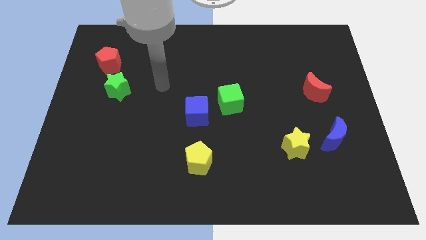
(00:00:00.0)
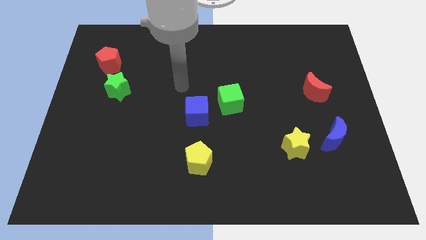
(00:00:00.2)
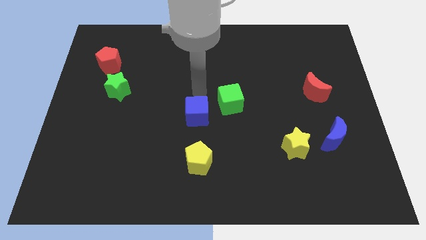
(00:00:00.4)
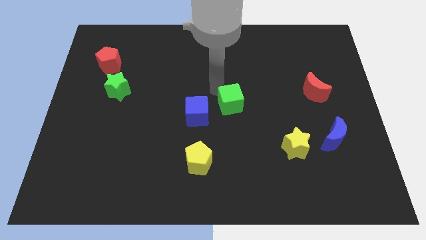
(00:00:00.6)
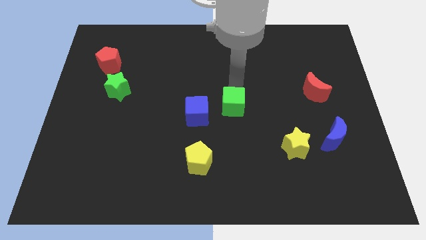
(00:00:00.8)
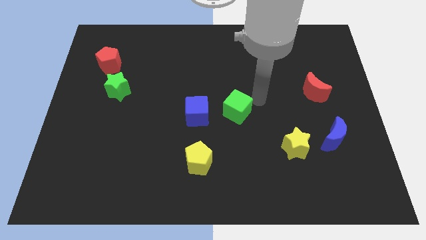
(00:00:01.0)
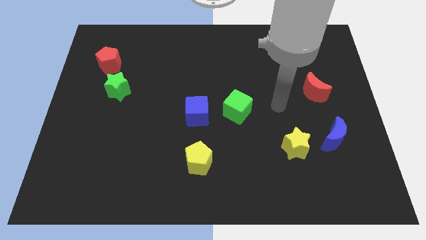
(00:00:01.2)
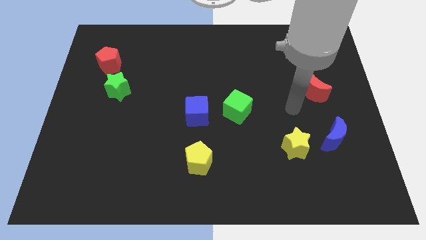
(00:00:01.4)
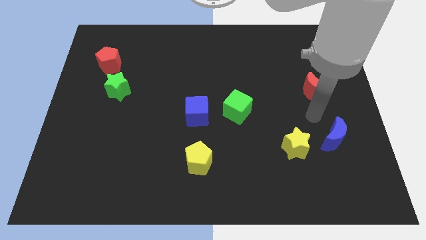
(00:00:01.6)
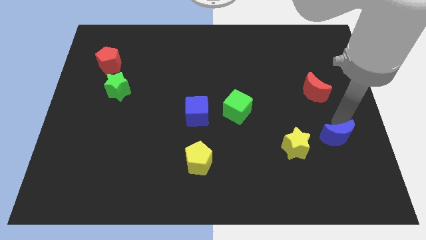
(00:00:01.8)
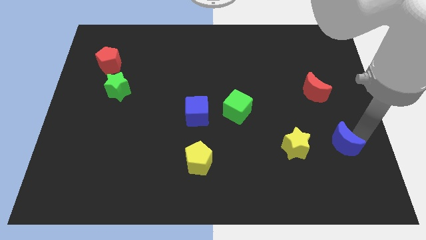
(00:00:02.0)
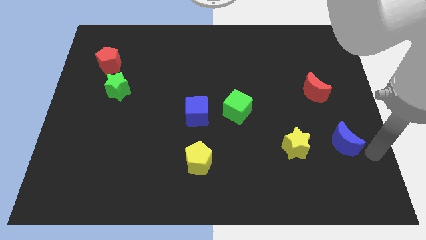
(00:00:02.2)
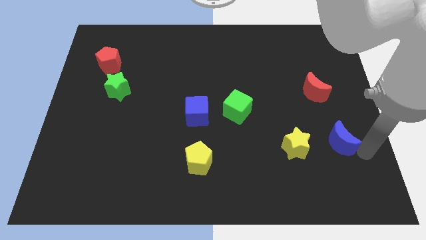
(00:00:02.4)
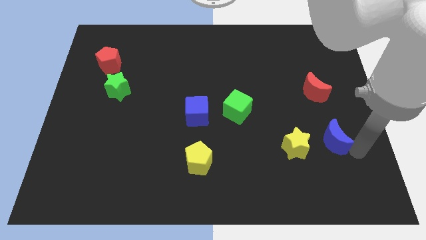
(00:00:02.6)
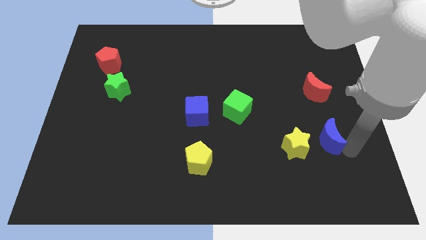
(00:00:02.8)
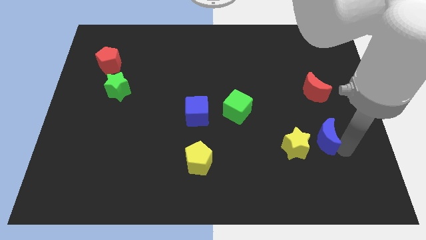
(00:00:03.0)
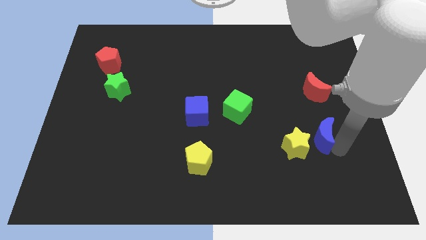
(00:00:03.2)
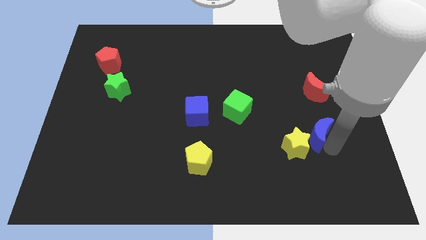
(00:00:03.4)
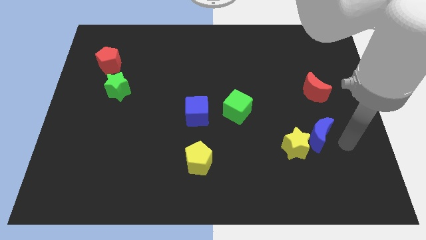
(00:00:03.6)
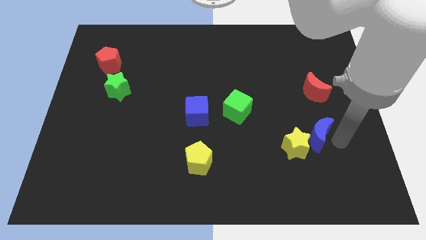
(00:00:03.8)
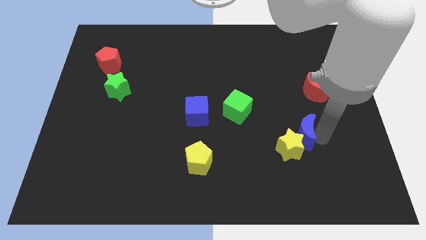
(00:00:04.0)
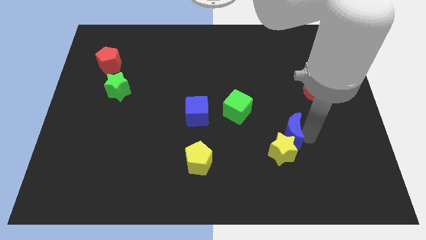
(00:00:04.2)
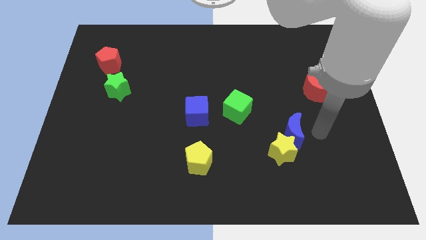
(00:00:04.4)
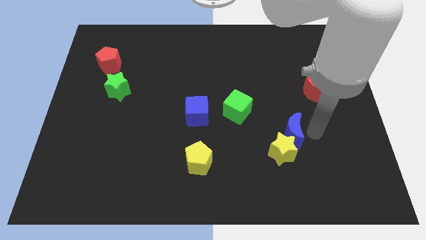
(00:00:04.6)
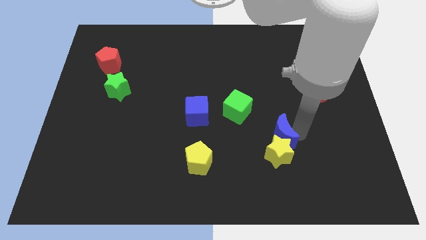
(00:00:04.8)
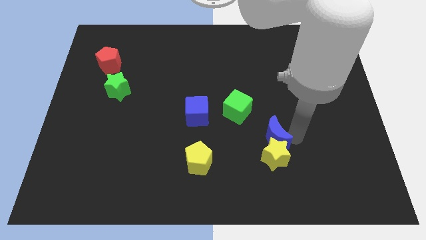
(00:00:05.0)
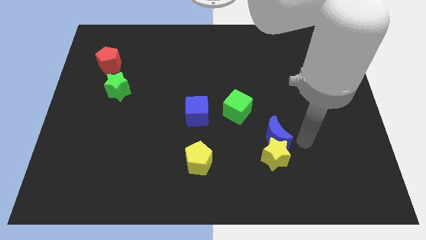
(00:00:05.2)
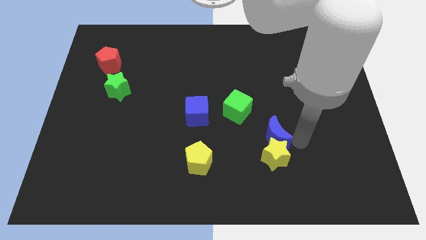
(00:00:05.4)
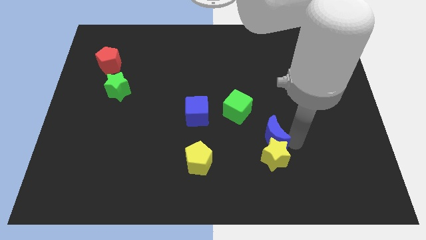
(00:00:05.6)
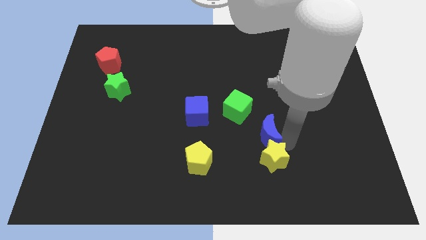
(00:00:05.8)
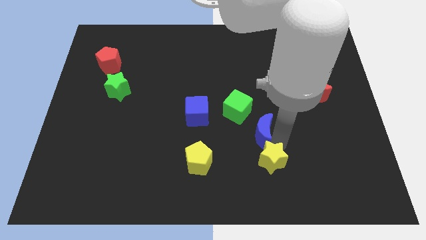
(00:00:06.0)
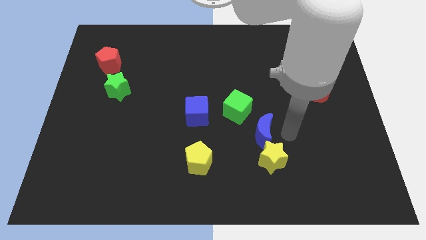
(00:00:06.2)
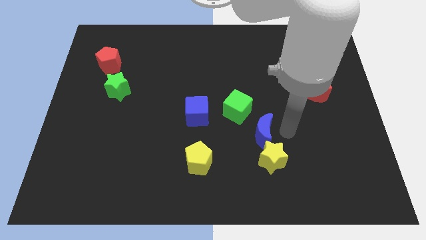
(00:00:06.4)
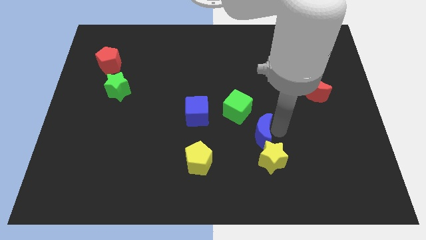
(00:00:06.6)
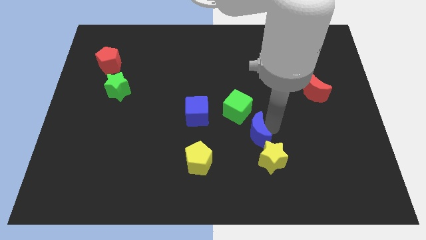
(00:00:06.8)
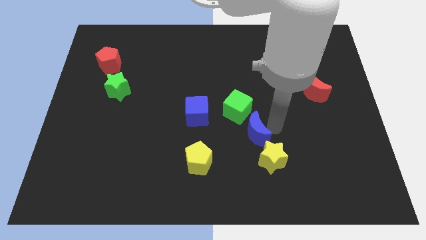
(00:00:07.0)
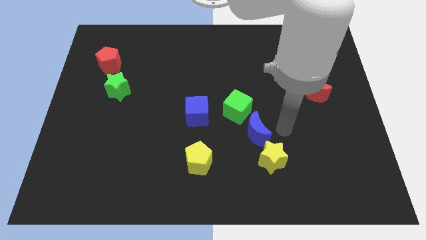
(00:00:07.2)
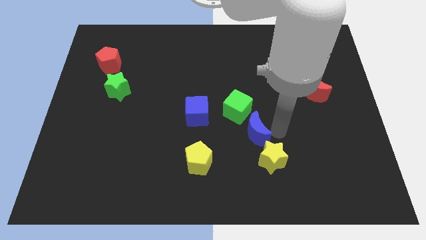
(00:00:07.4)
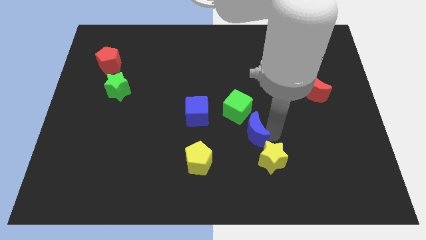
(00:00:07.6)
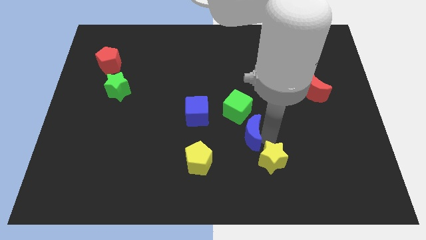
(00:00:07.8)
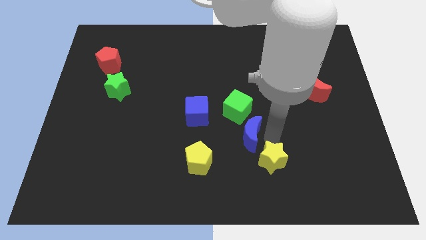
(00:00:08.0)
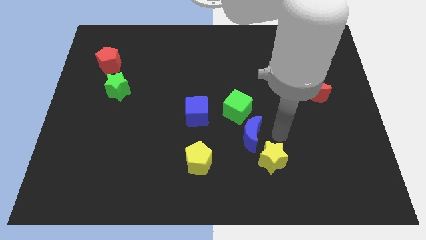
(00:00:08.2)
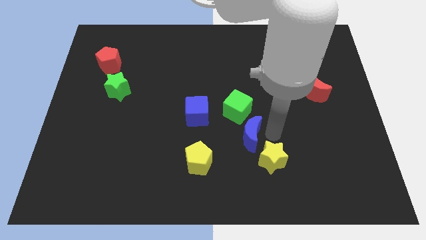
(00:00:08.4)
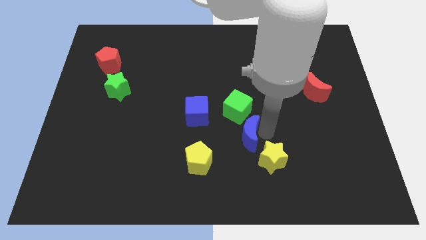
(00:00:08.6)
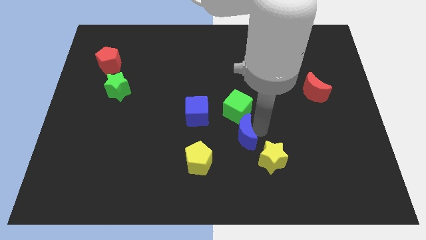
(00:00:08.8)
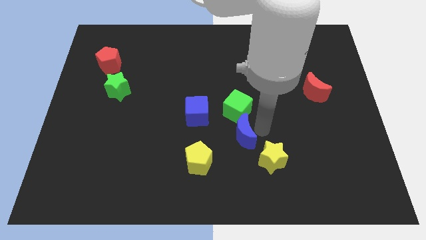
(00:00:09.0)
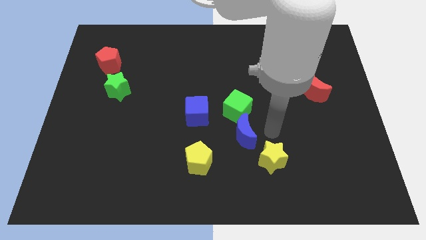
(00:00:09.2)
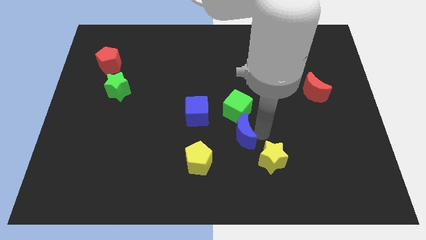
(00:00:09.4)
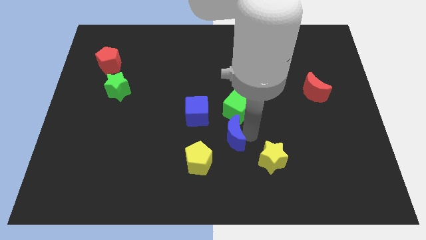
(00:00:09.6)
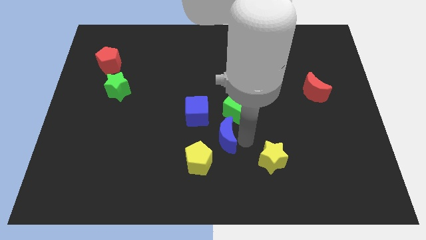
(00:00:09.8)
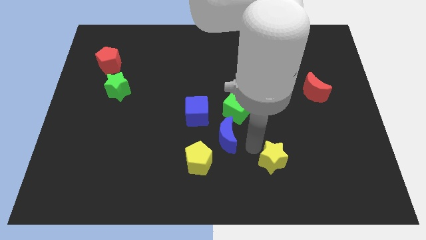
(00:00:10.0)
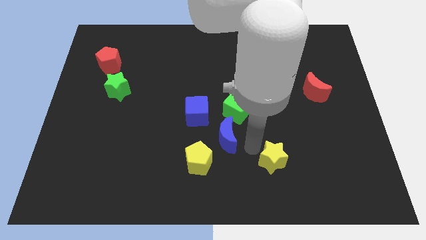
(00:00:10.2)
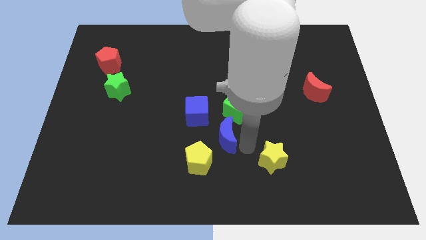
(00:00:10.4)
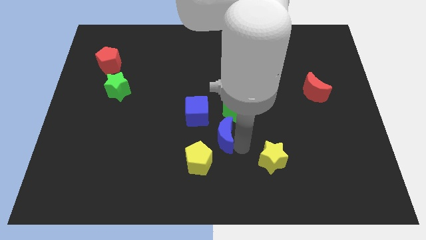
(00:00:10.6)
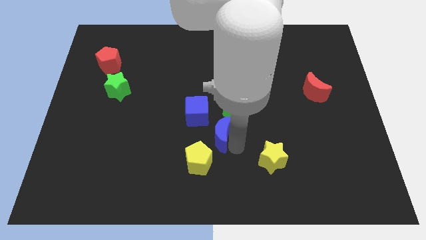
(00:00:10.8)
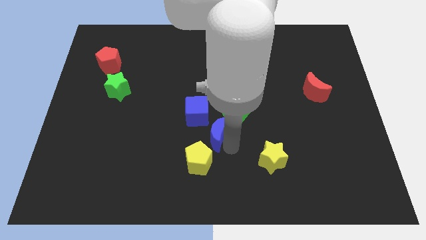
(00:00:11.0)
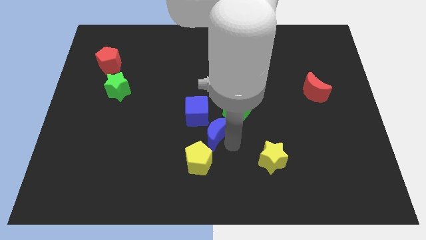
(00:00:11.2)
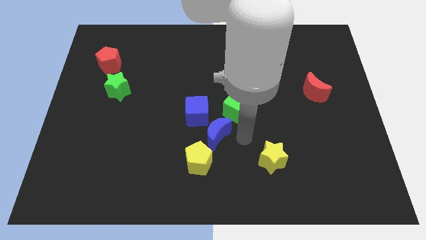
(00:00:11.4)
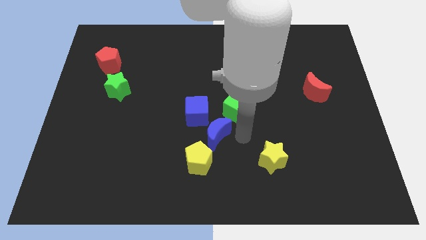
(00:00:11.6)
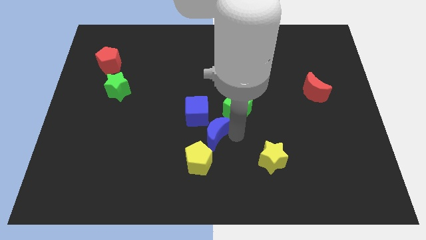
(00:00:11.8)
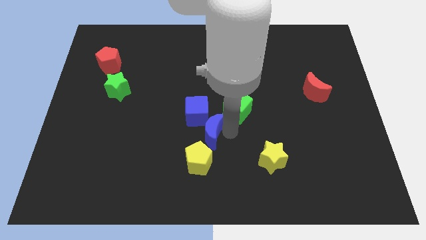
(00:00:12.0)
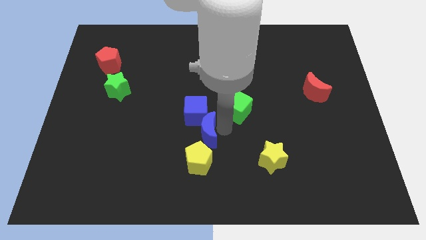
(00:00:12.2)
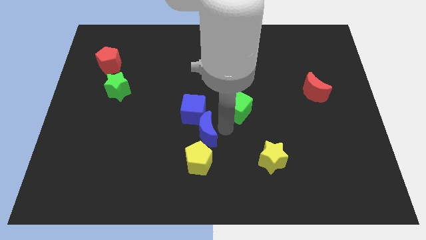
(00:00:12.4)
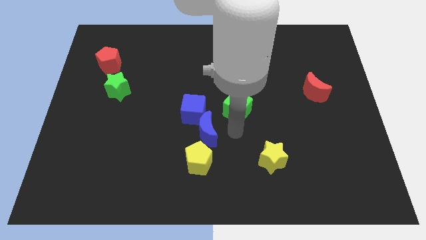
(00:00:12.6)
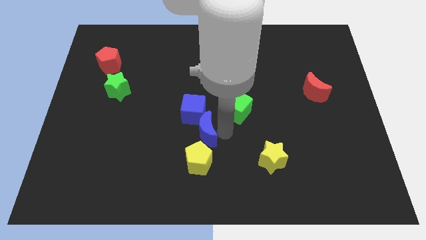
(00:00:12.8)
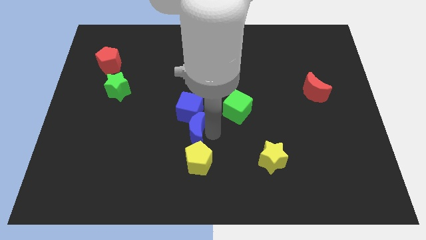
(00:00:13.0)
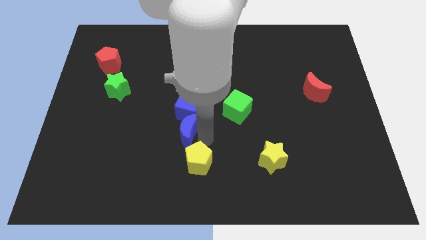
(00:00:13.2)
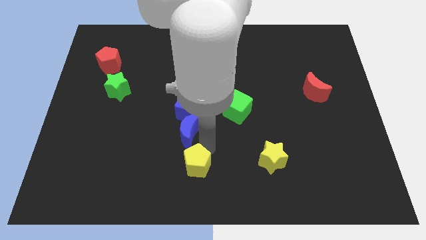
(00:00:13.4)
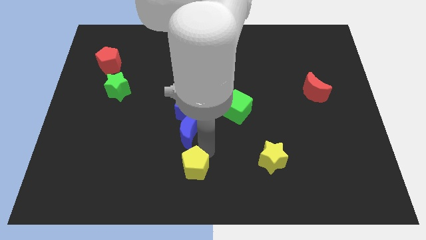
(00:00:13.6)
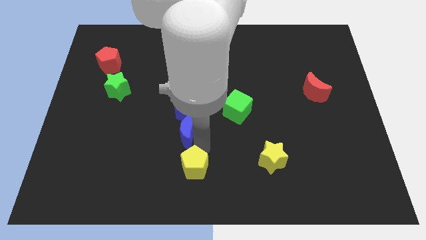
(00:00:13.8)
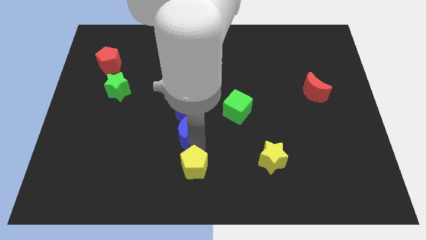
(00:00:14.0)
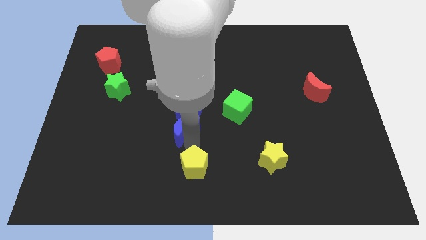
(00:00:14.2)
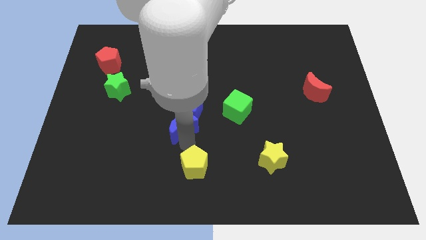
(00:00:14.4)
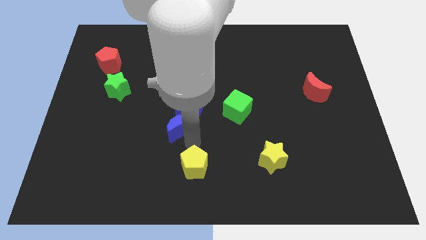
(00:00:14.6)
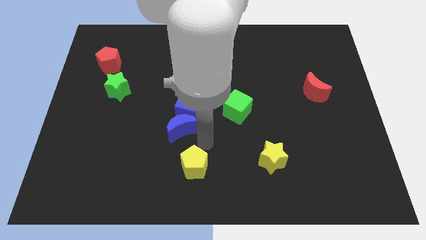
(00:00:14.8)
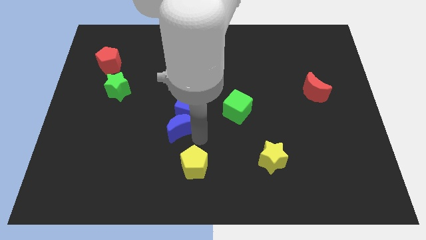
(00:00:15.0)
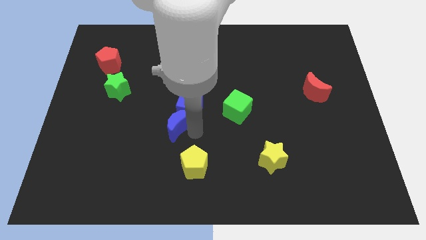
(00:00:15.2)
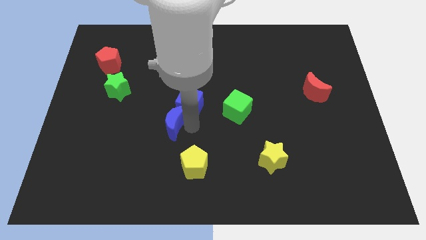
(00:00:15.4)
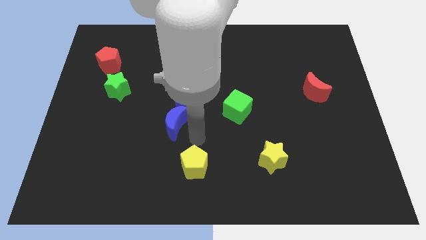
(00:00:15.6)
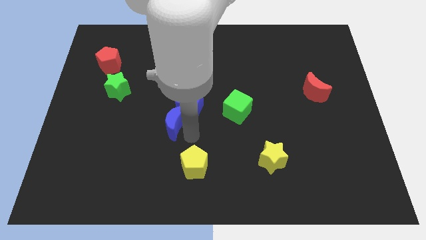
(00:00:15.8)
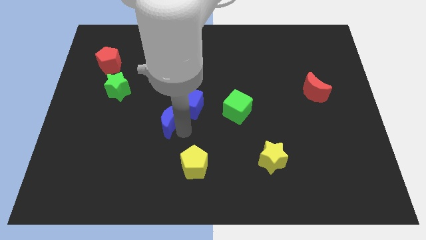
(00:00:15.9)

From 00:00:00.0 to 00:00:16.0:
move the blue moon to the left side of the blue cube
